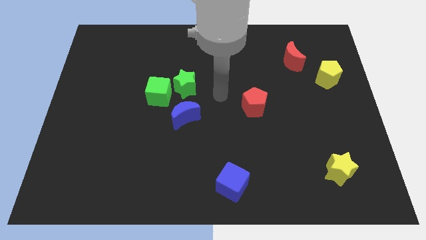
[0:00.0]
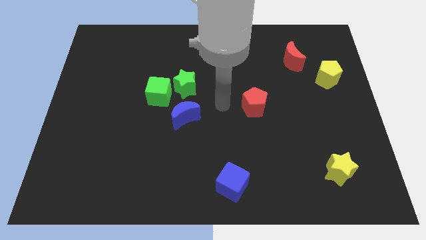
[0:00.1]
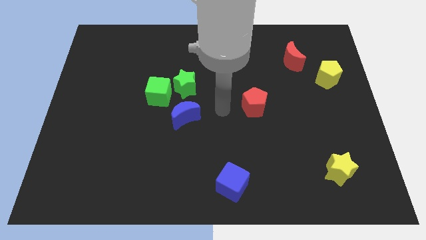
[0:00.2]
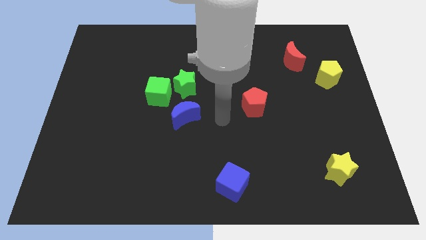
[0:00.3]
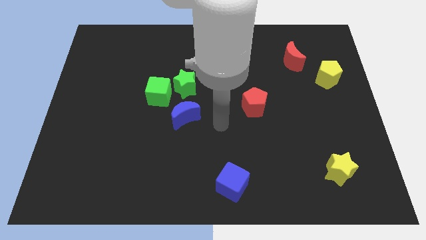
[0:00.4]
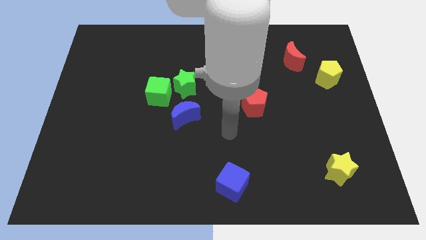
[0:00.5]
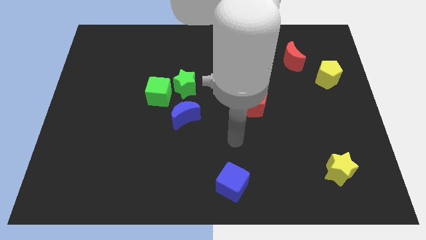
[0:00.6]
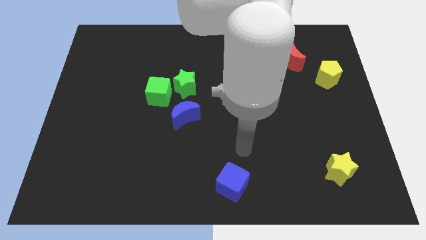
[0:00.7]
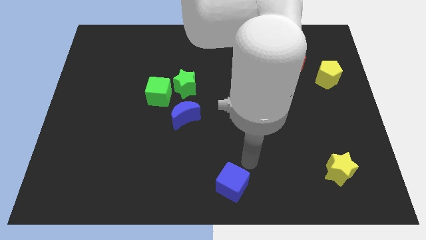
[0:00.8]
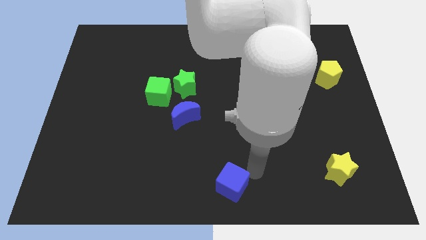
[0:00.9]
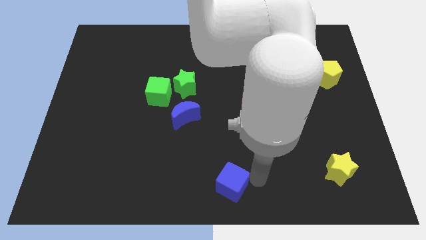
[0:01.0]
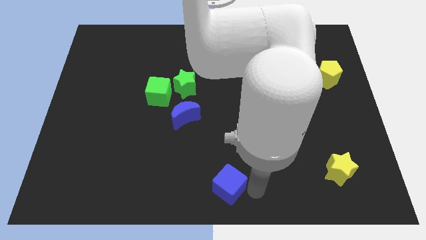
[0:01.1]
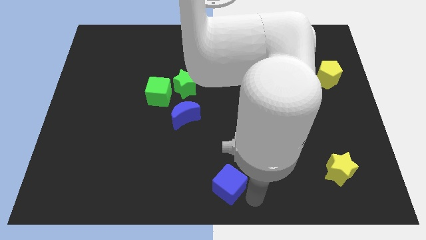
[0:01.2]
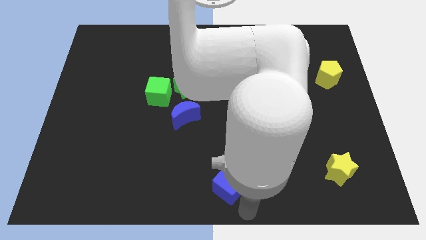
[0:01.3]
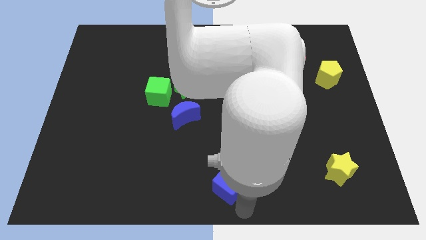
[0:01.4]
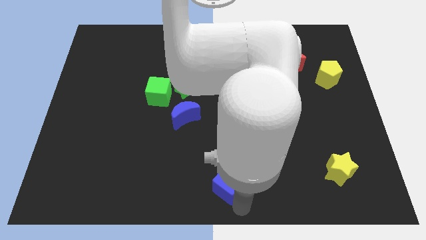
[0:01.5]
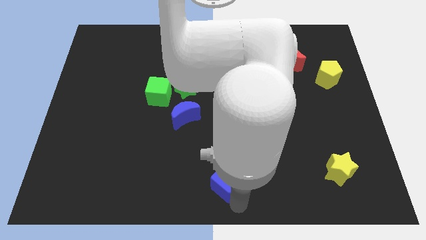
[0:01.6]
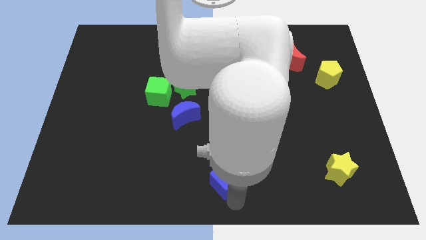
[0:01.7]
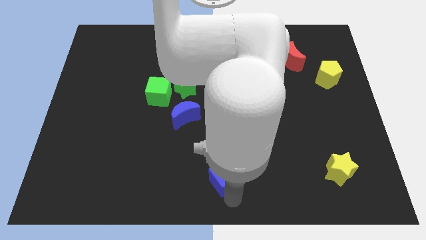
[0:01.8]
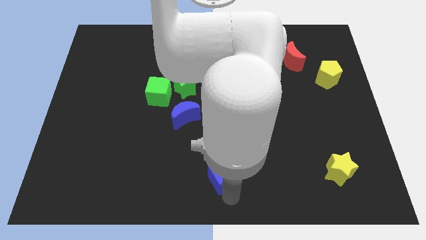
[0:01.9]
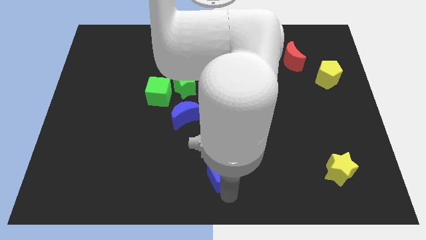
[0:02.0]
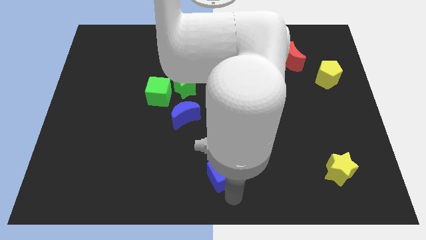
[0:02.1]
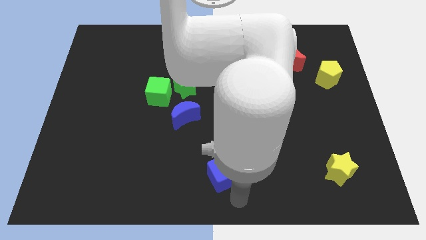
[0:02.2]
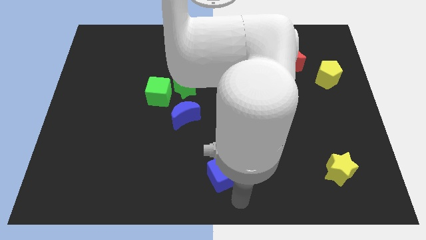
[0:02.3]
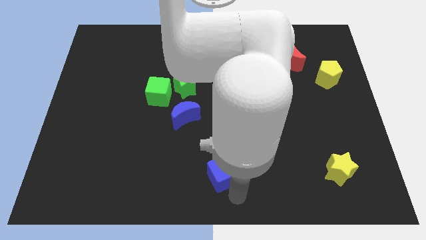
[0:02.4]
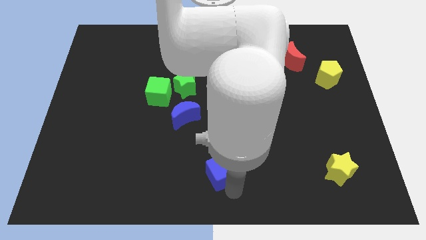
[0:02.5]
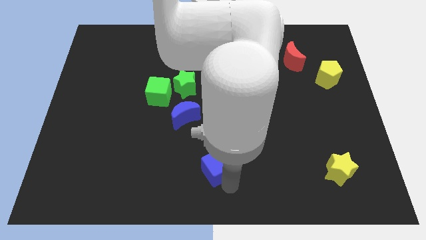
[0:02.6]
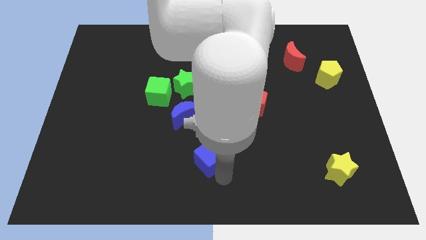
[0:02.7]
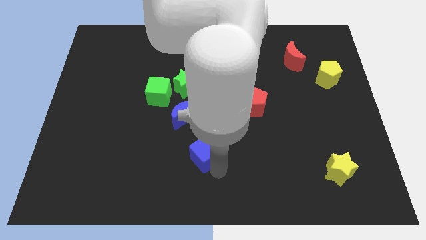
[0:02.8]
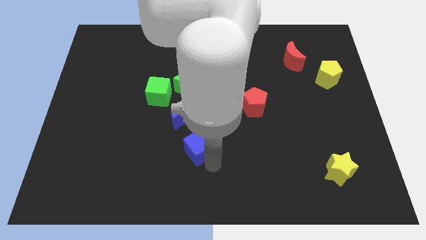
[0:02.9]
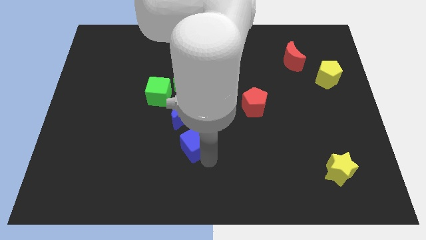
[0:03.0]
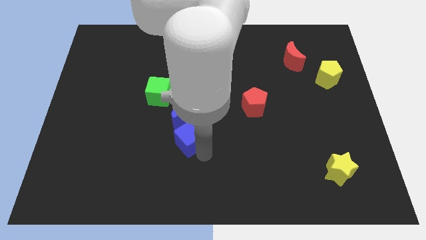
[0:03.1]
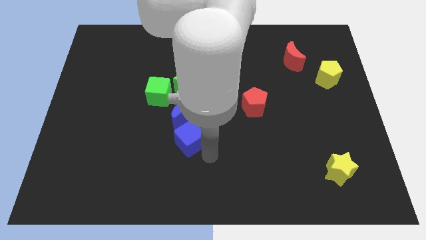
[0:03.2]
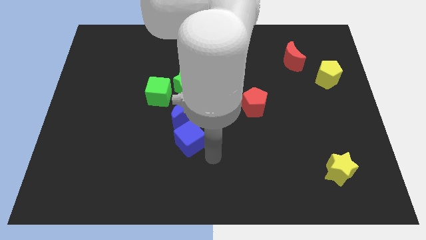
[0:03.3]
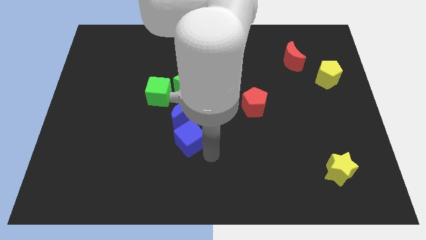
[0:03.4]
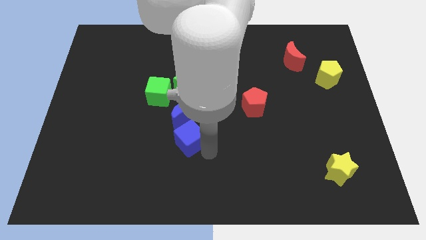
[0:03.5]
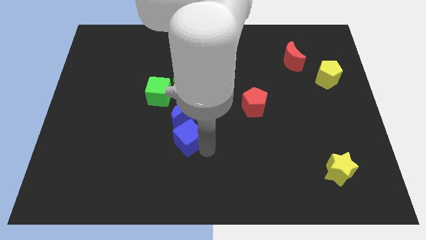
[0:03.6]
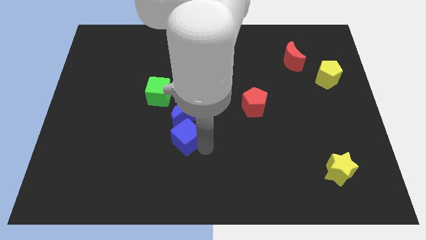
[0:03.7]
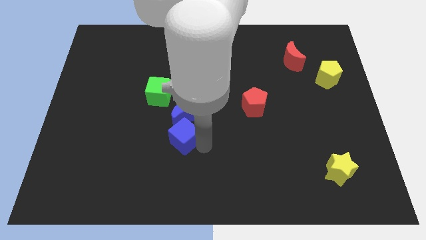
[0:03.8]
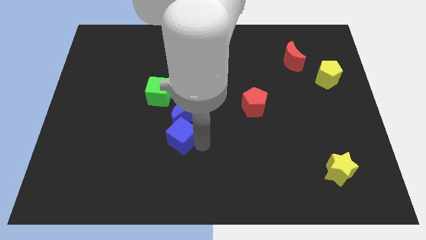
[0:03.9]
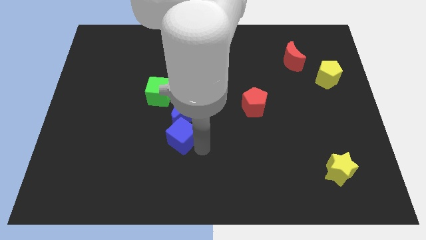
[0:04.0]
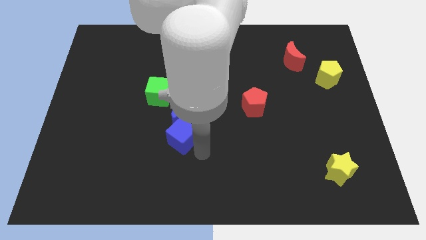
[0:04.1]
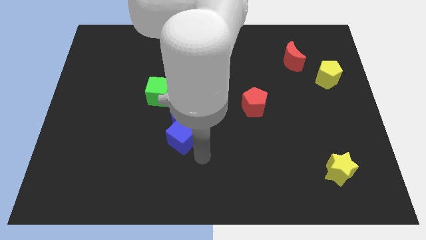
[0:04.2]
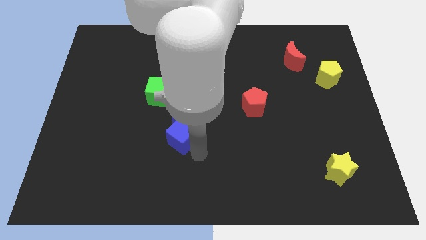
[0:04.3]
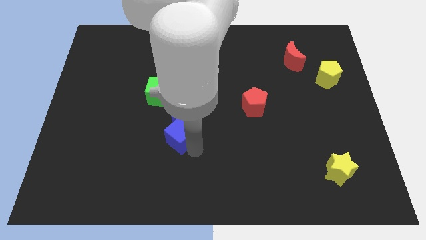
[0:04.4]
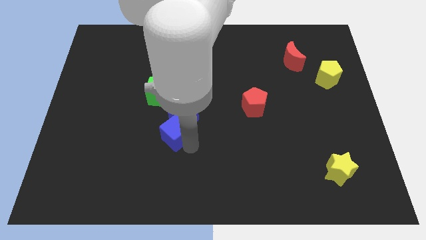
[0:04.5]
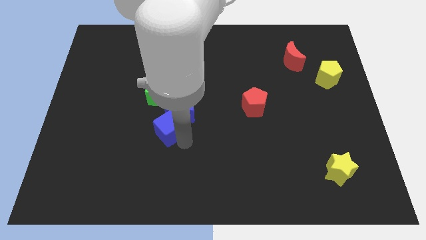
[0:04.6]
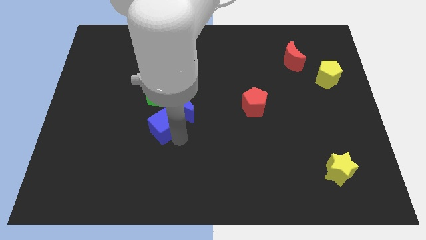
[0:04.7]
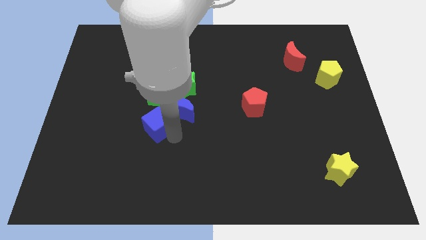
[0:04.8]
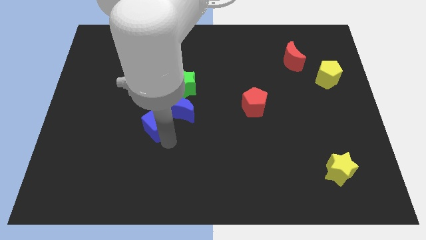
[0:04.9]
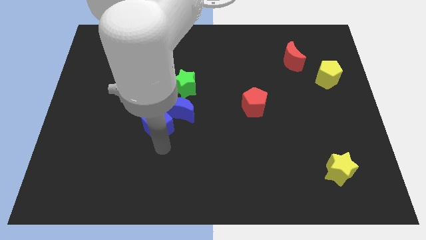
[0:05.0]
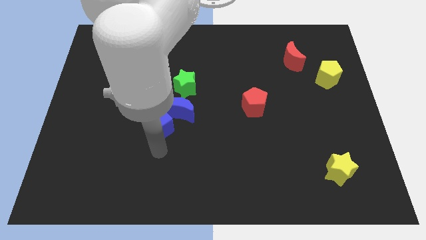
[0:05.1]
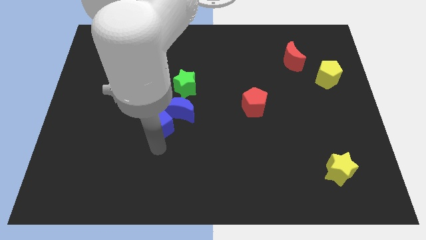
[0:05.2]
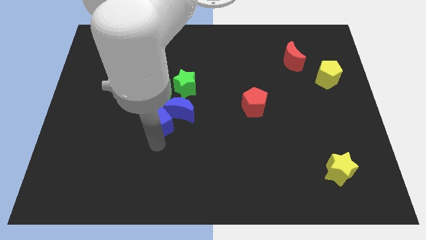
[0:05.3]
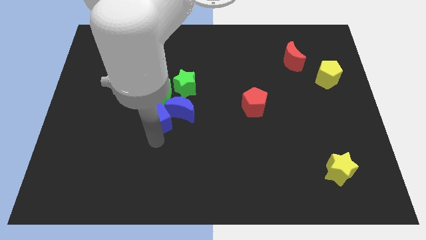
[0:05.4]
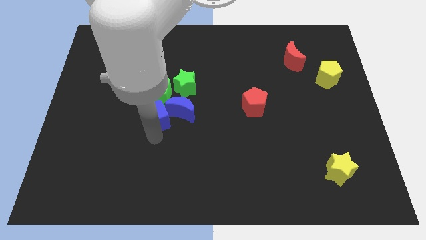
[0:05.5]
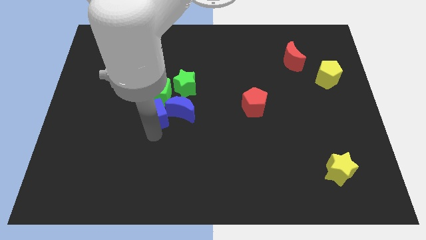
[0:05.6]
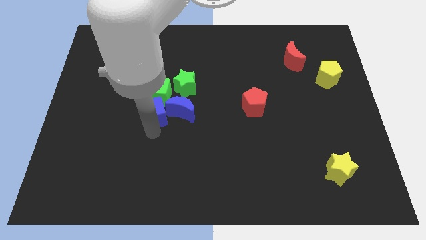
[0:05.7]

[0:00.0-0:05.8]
slide the blue cube to the green cube

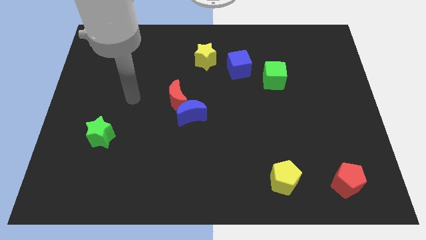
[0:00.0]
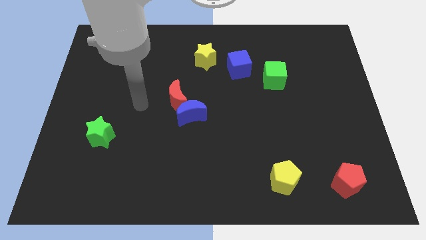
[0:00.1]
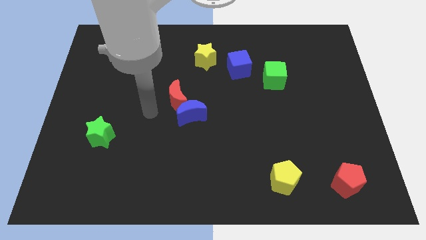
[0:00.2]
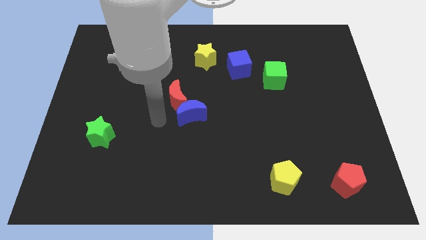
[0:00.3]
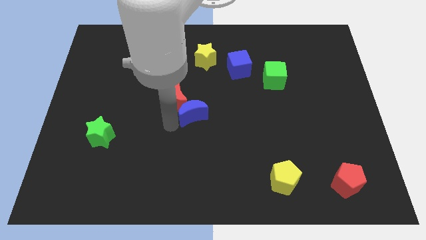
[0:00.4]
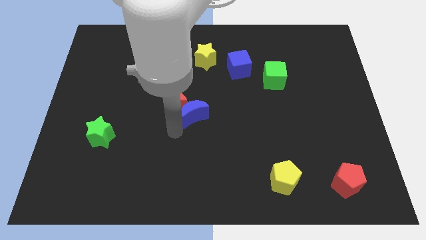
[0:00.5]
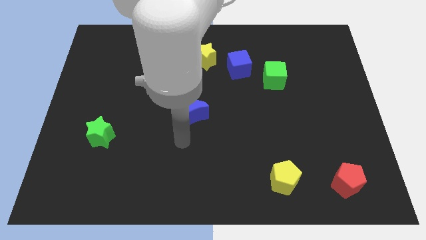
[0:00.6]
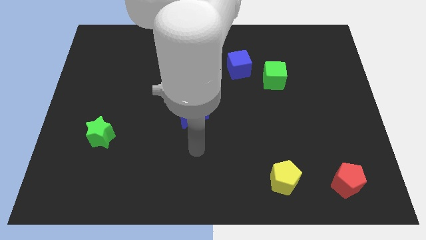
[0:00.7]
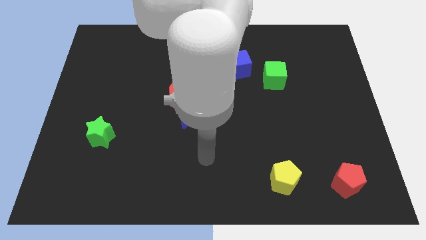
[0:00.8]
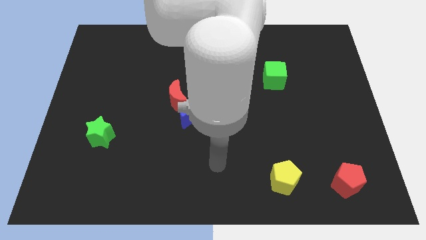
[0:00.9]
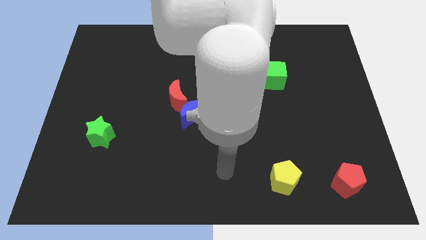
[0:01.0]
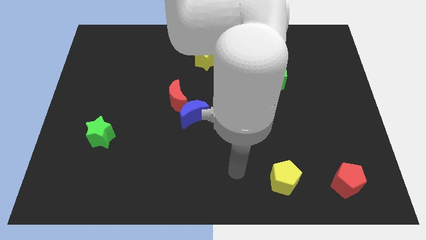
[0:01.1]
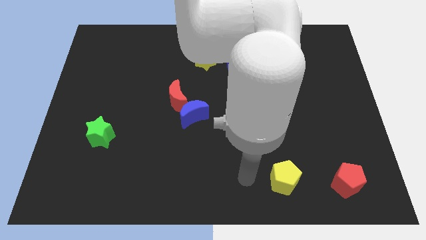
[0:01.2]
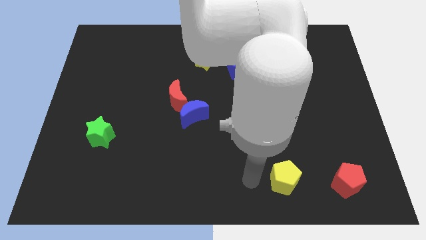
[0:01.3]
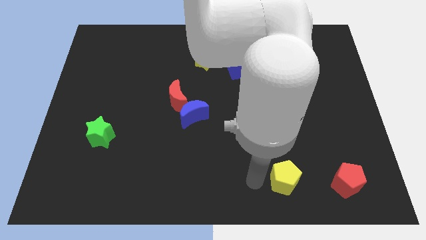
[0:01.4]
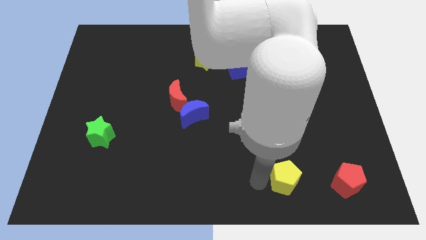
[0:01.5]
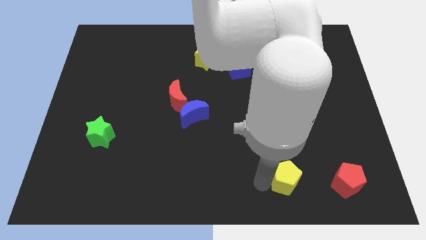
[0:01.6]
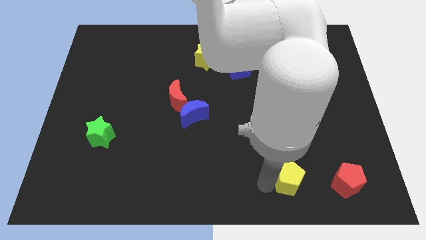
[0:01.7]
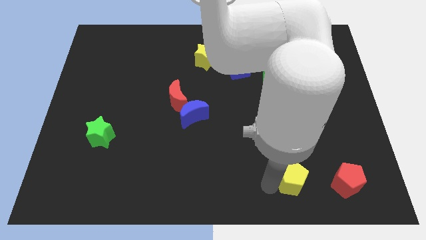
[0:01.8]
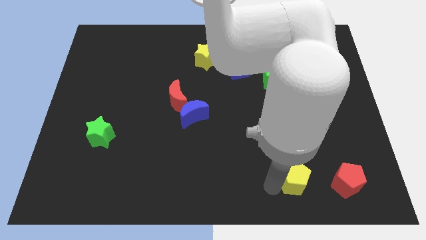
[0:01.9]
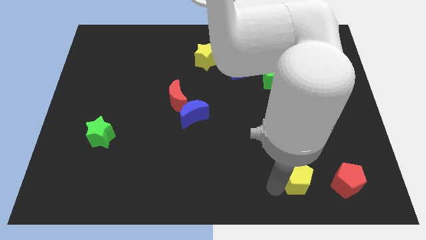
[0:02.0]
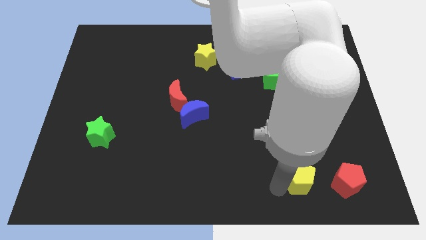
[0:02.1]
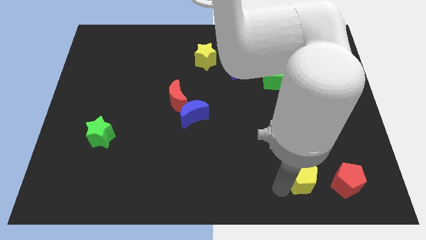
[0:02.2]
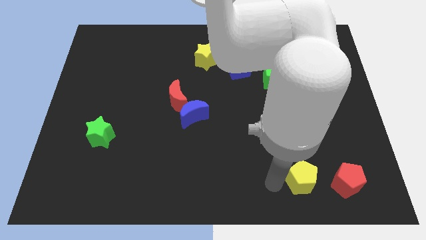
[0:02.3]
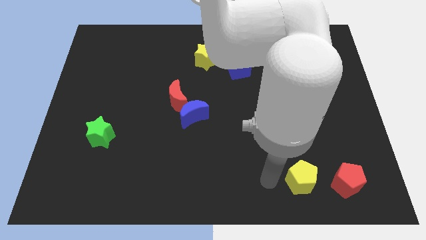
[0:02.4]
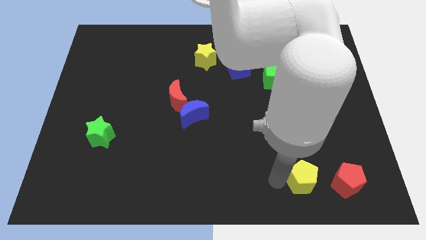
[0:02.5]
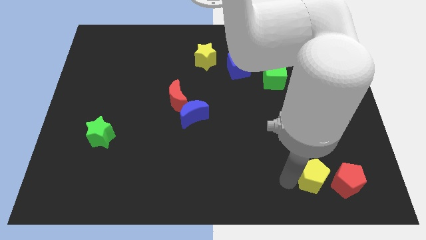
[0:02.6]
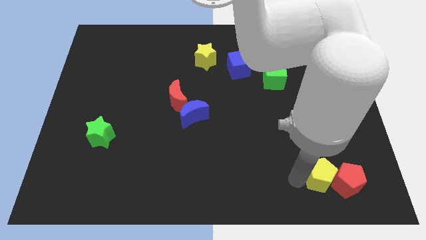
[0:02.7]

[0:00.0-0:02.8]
move the yellow pentagon next to the red pentagon
